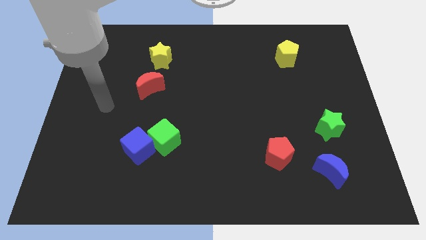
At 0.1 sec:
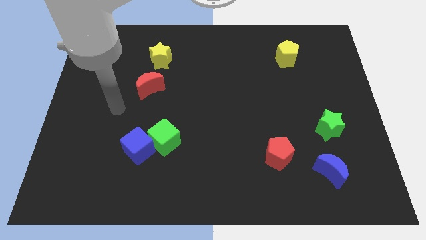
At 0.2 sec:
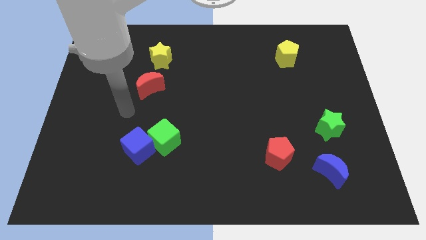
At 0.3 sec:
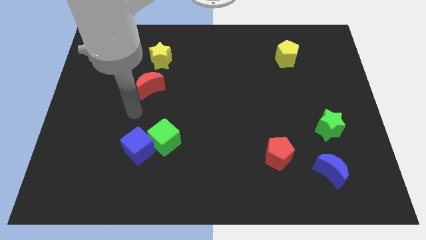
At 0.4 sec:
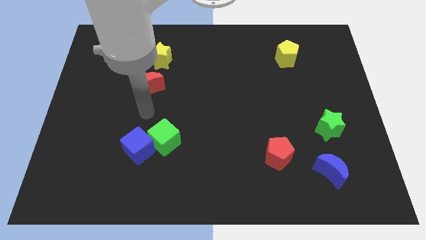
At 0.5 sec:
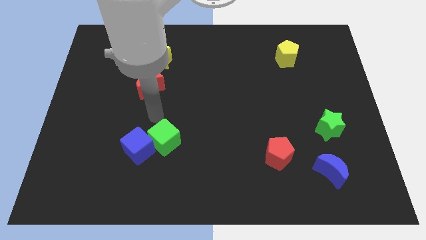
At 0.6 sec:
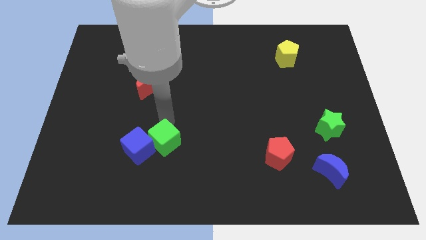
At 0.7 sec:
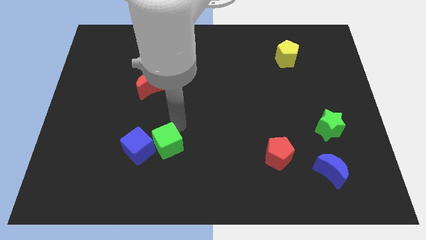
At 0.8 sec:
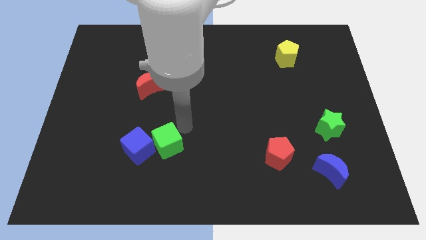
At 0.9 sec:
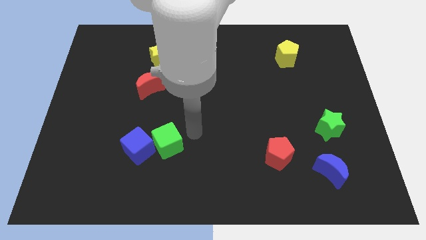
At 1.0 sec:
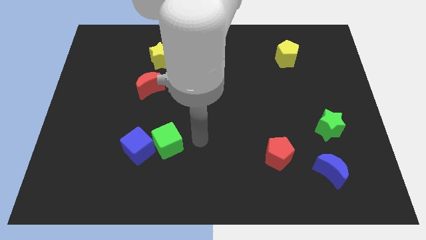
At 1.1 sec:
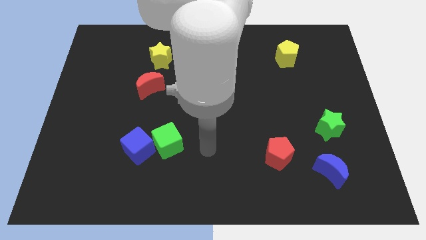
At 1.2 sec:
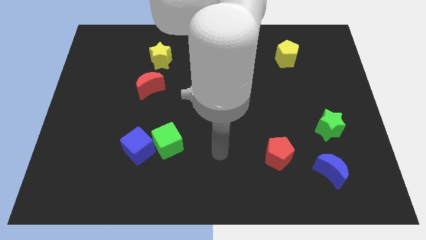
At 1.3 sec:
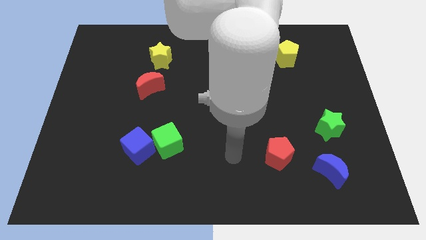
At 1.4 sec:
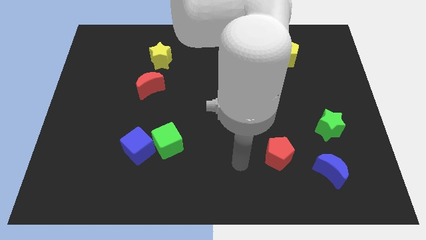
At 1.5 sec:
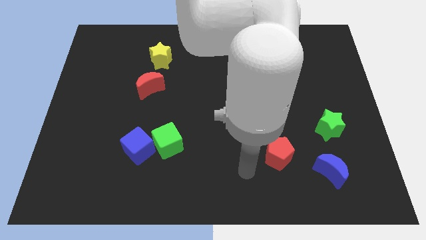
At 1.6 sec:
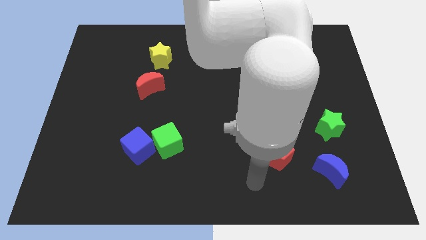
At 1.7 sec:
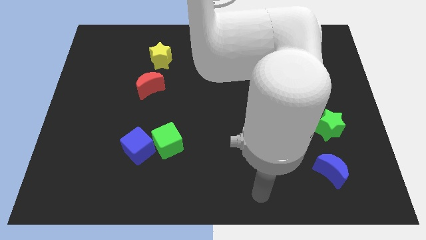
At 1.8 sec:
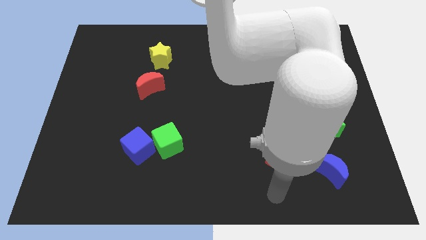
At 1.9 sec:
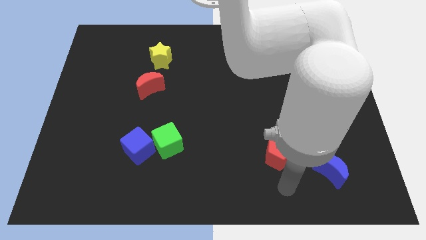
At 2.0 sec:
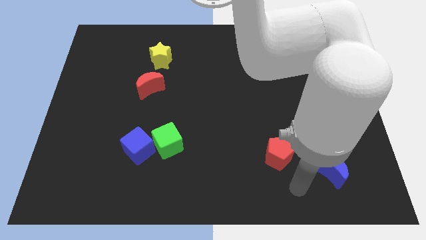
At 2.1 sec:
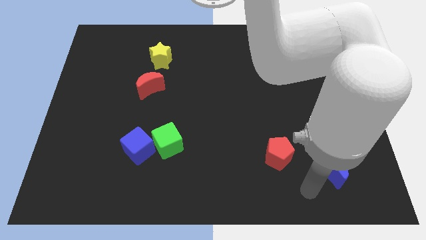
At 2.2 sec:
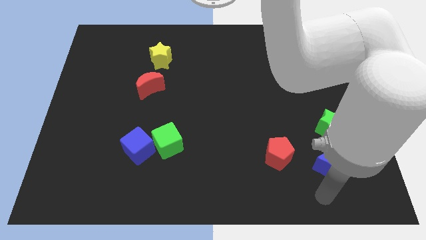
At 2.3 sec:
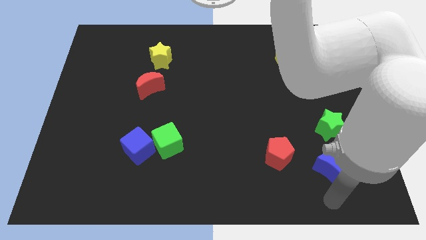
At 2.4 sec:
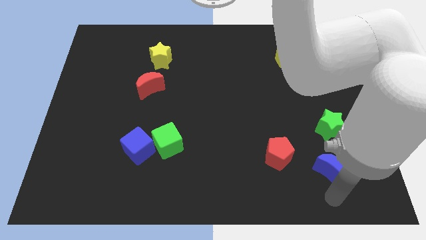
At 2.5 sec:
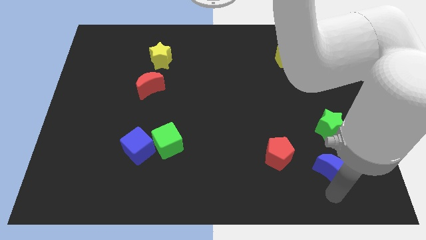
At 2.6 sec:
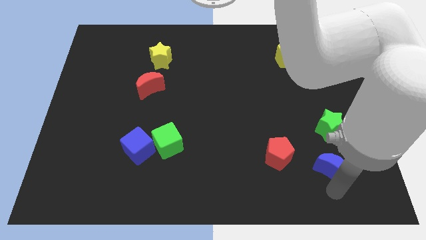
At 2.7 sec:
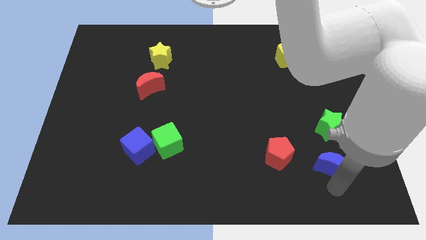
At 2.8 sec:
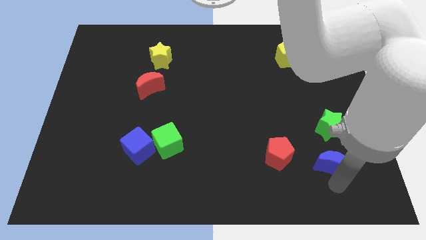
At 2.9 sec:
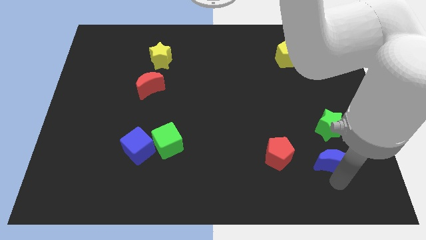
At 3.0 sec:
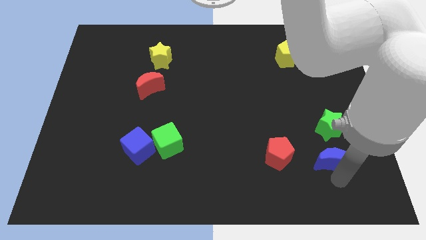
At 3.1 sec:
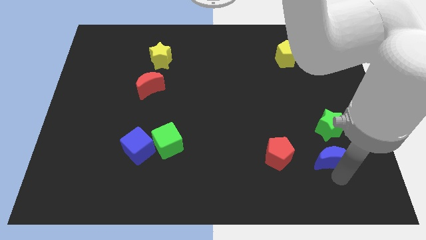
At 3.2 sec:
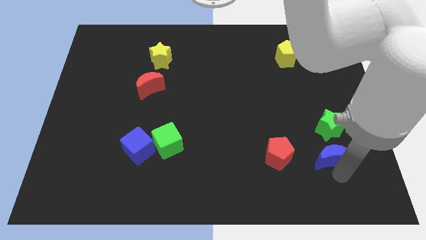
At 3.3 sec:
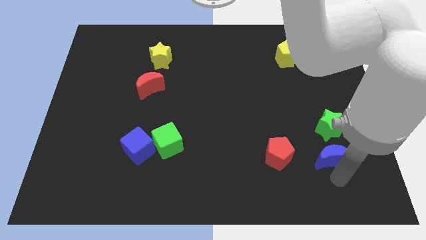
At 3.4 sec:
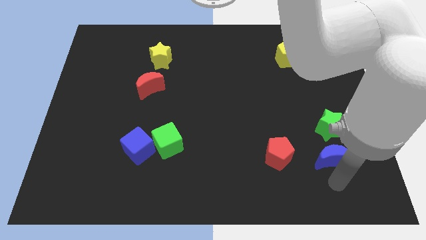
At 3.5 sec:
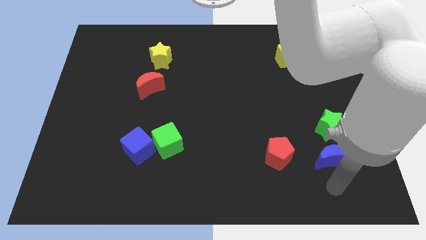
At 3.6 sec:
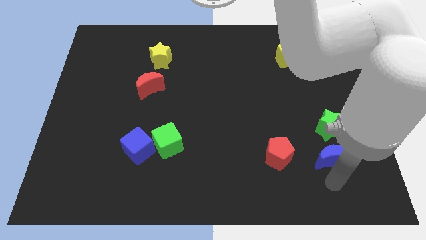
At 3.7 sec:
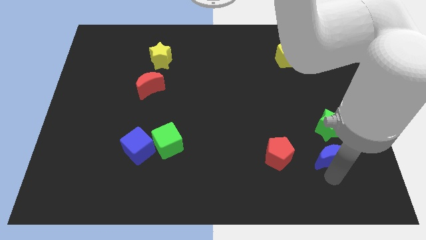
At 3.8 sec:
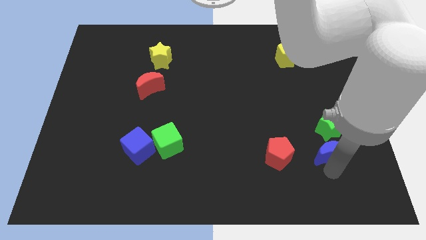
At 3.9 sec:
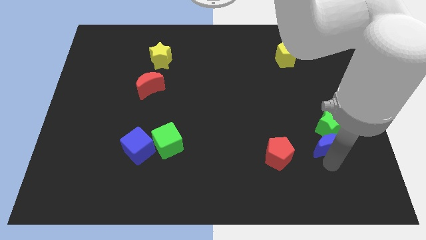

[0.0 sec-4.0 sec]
put the blue moon to the green star

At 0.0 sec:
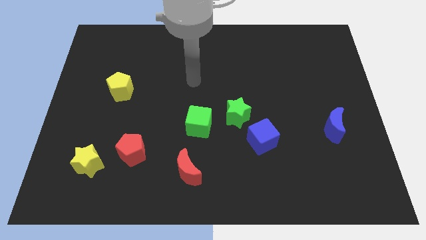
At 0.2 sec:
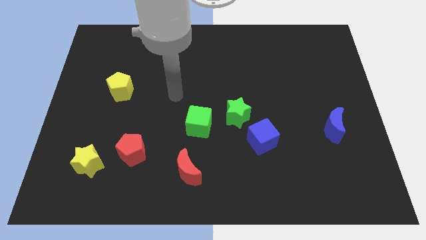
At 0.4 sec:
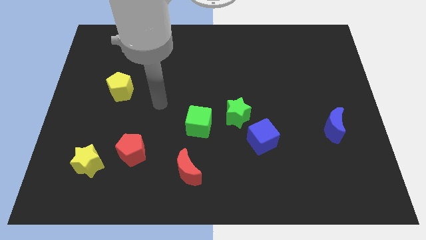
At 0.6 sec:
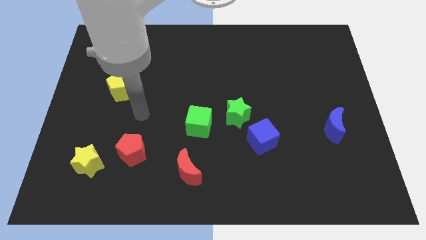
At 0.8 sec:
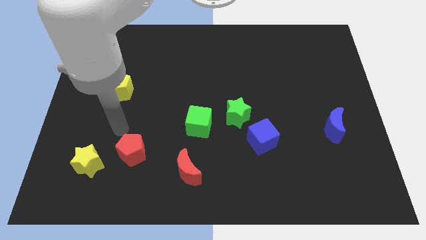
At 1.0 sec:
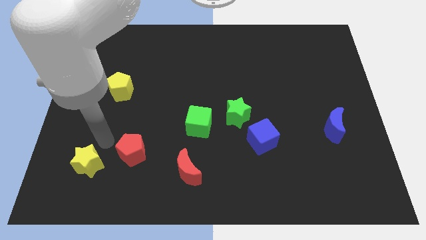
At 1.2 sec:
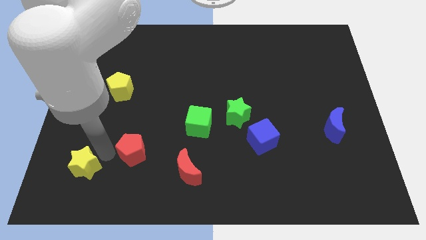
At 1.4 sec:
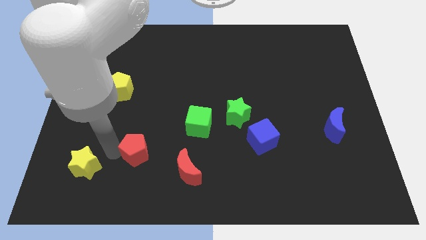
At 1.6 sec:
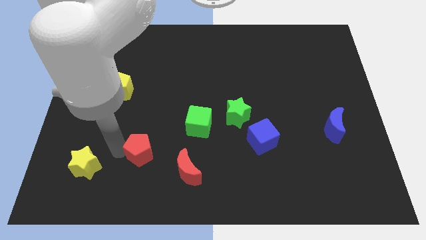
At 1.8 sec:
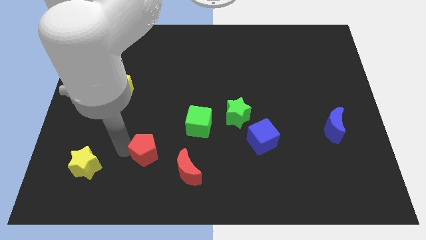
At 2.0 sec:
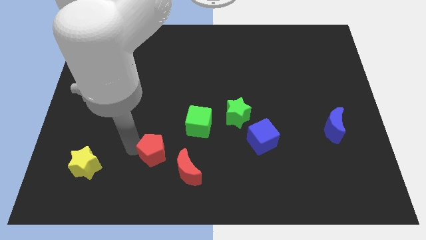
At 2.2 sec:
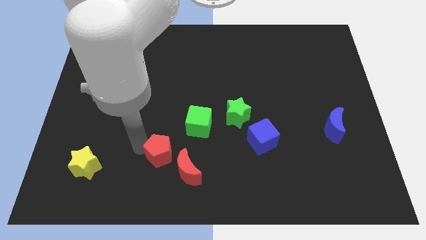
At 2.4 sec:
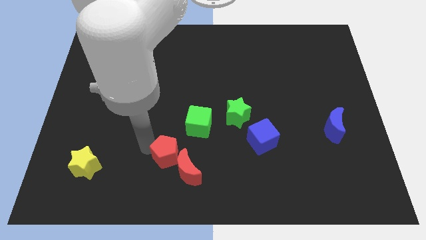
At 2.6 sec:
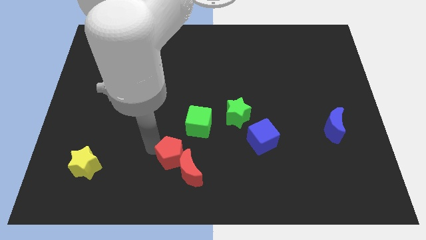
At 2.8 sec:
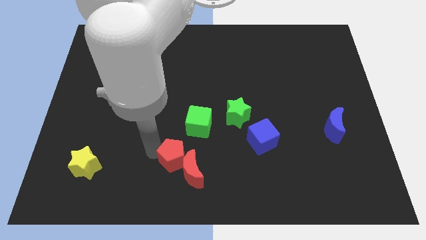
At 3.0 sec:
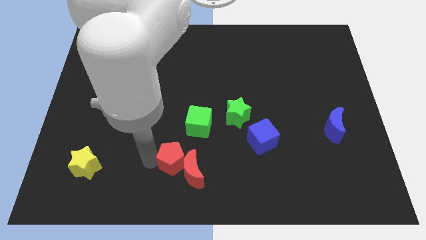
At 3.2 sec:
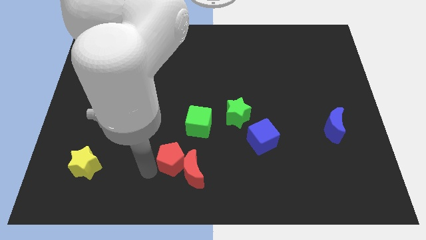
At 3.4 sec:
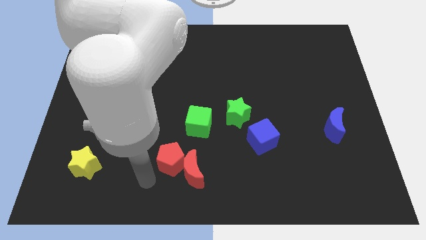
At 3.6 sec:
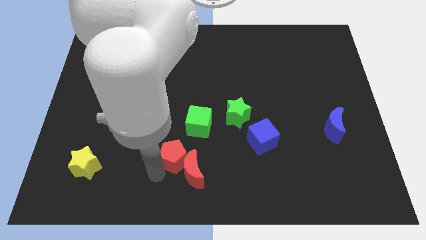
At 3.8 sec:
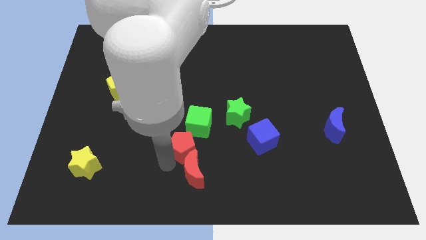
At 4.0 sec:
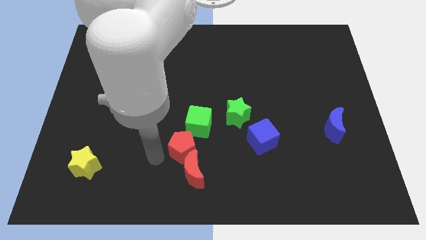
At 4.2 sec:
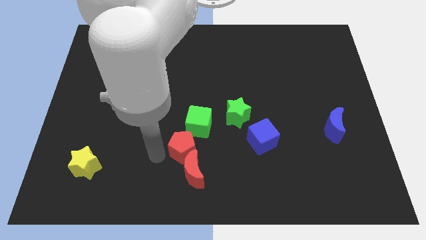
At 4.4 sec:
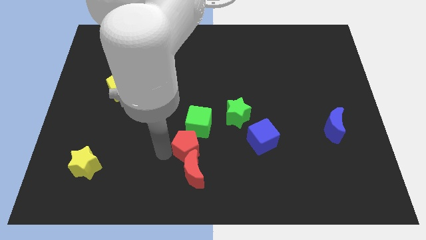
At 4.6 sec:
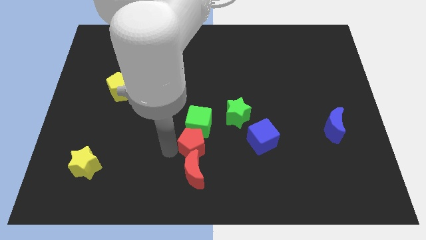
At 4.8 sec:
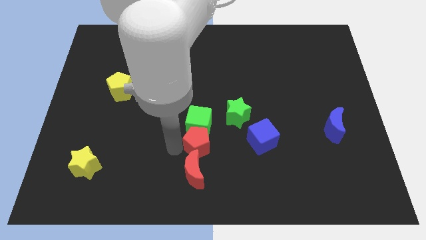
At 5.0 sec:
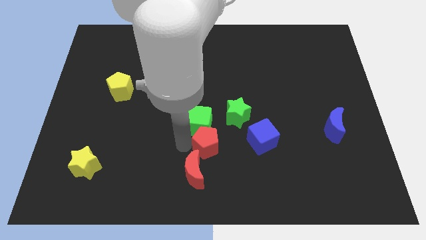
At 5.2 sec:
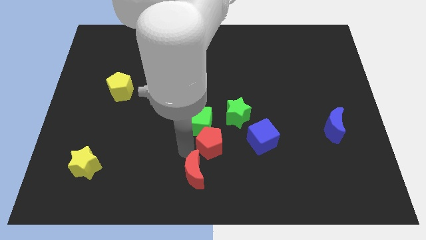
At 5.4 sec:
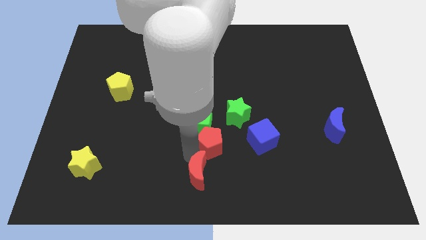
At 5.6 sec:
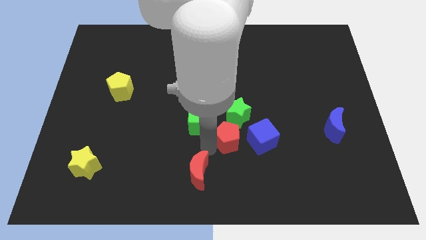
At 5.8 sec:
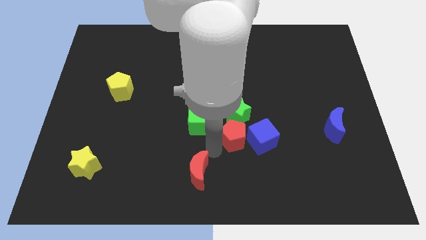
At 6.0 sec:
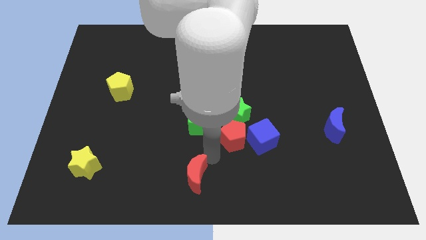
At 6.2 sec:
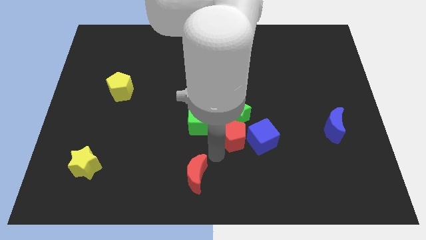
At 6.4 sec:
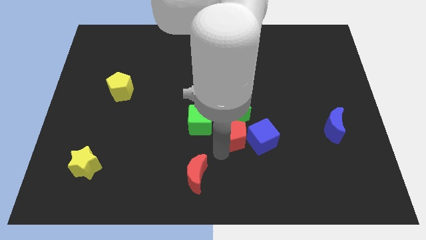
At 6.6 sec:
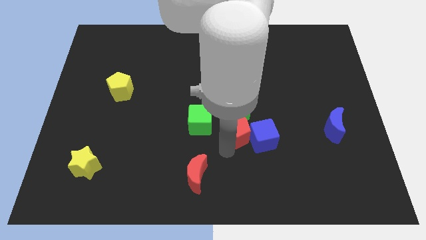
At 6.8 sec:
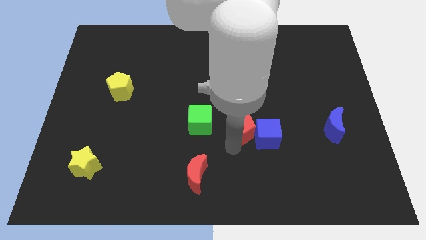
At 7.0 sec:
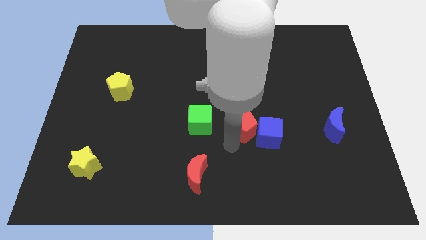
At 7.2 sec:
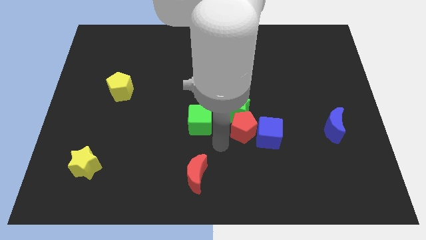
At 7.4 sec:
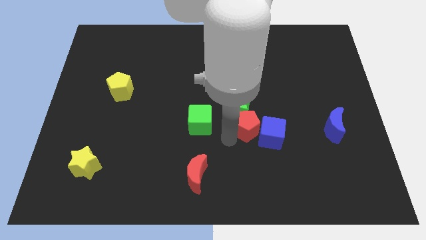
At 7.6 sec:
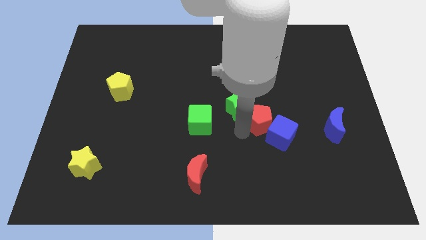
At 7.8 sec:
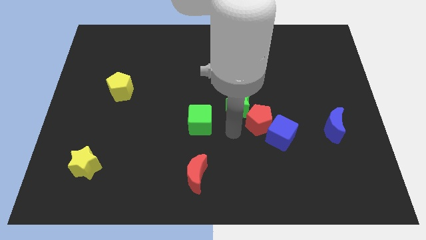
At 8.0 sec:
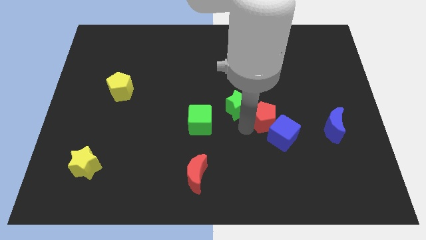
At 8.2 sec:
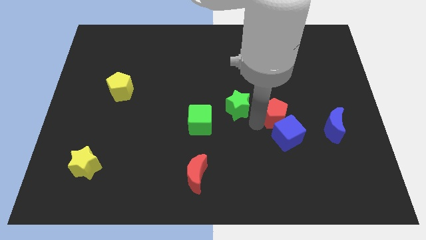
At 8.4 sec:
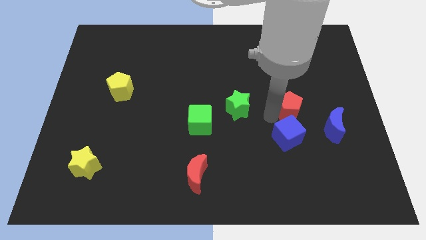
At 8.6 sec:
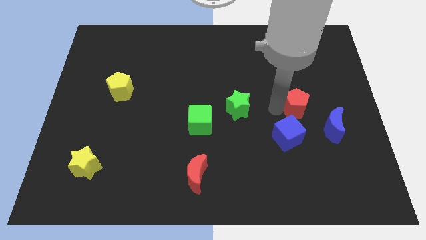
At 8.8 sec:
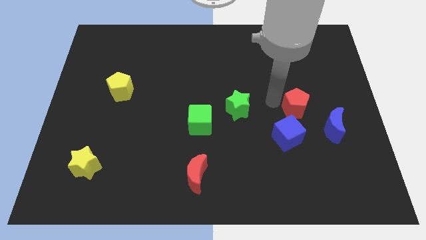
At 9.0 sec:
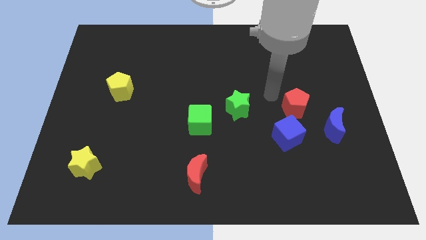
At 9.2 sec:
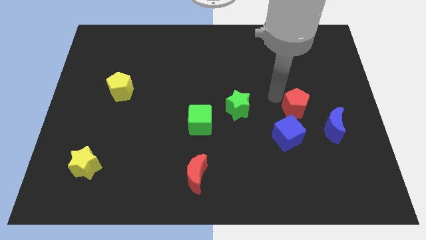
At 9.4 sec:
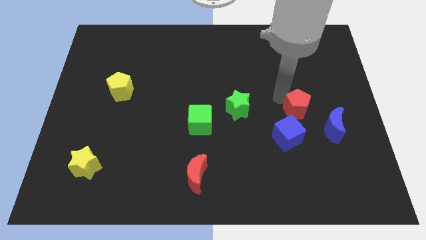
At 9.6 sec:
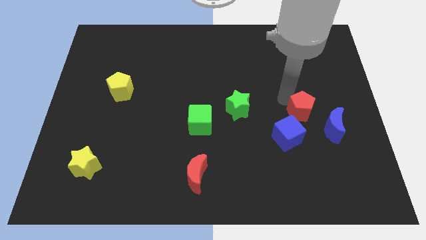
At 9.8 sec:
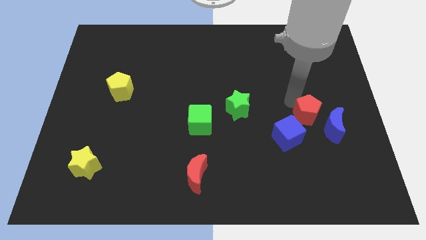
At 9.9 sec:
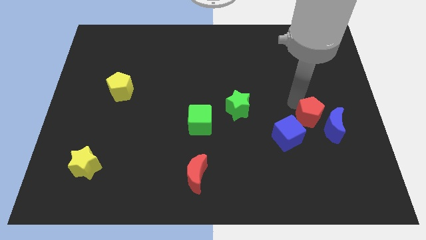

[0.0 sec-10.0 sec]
slide the red pentagon next to the blue moon
